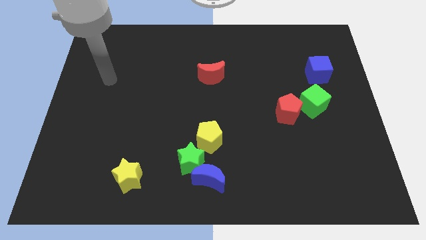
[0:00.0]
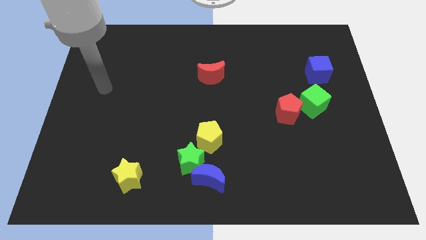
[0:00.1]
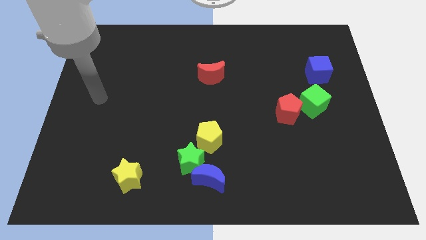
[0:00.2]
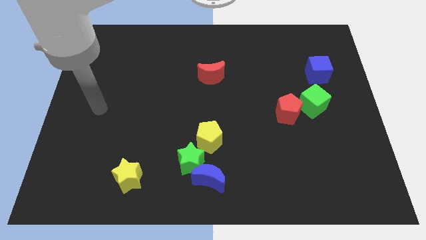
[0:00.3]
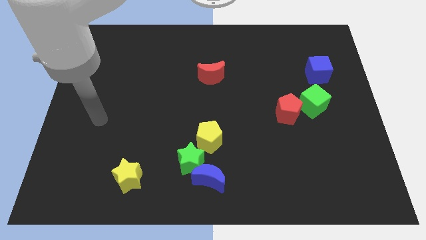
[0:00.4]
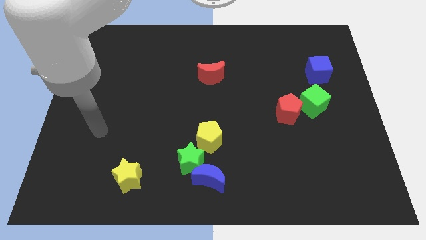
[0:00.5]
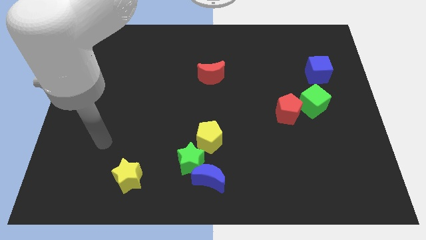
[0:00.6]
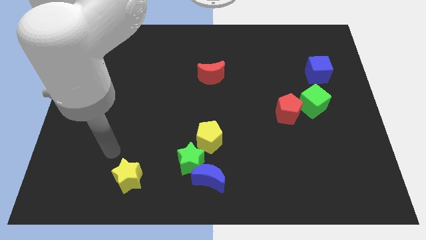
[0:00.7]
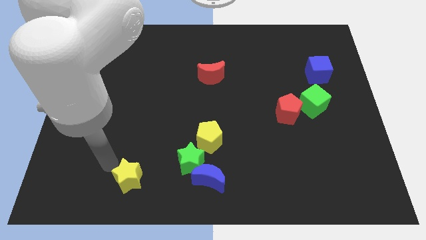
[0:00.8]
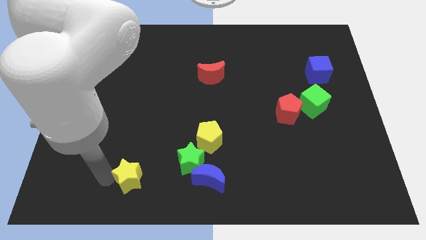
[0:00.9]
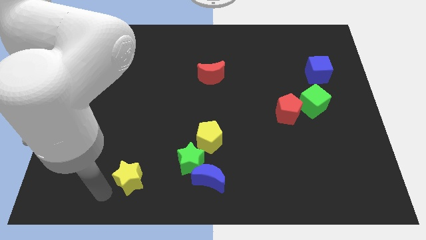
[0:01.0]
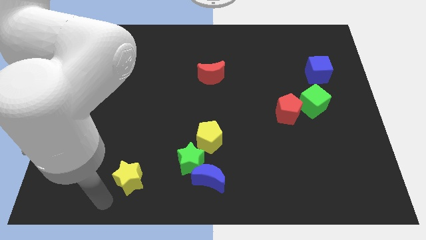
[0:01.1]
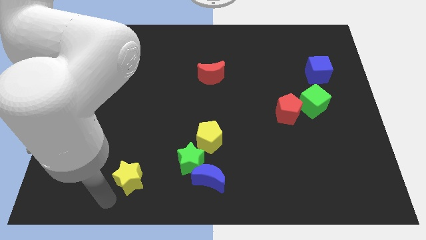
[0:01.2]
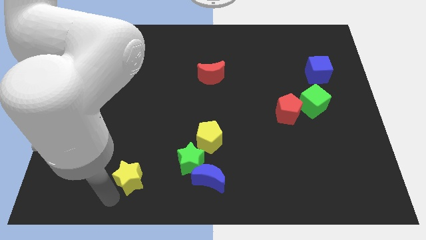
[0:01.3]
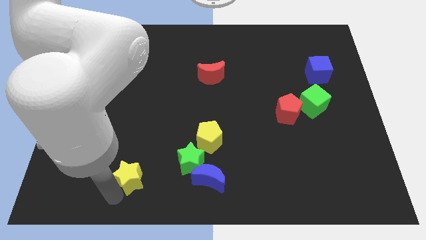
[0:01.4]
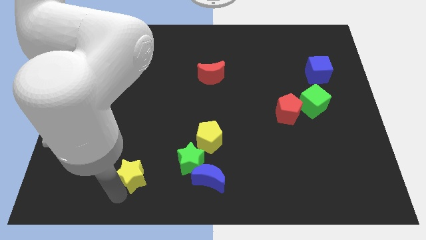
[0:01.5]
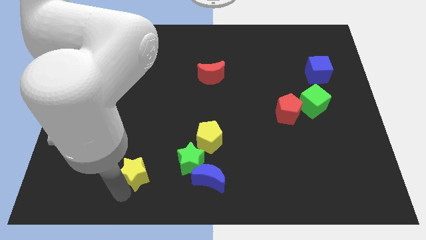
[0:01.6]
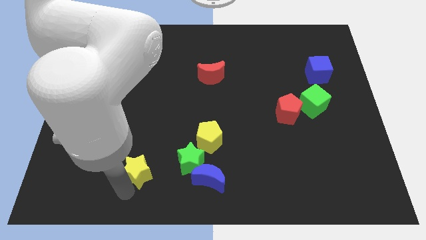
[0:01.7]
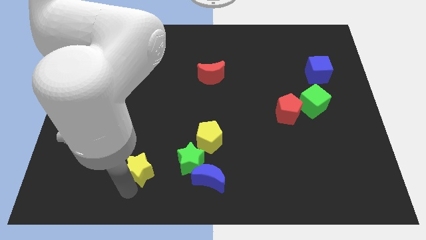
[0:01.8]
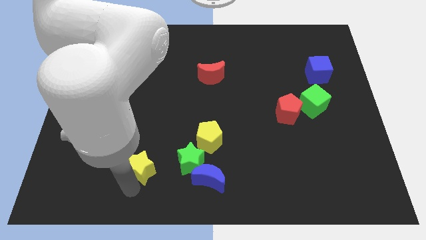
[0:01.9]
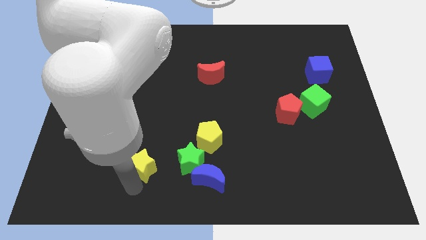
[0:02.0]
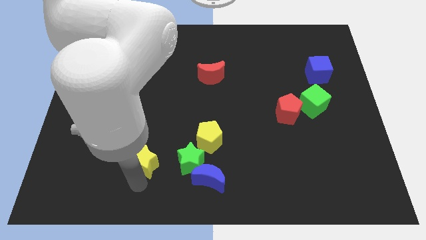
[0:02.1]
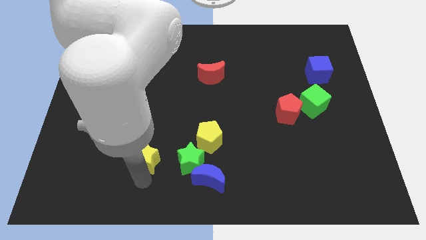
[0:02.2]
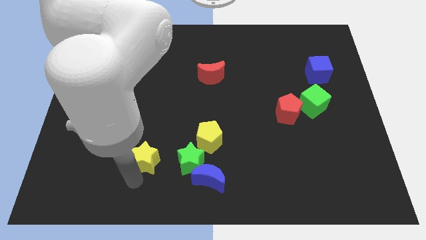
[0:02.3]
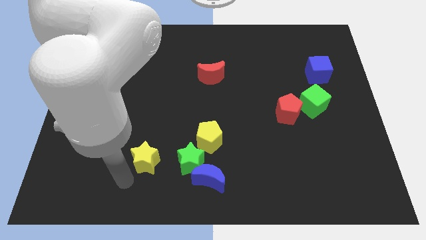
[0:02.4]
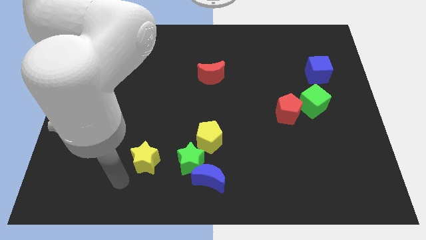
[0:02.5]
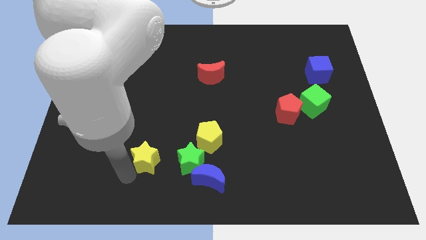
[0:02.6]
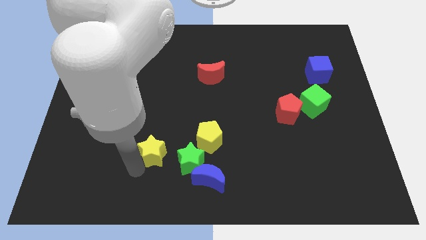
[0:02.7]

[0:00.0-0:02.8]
push the yellow star a little diagonally upwards and to the right

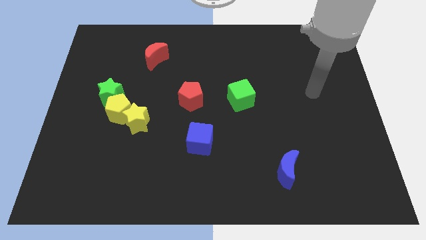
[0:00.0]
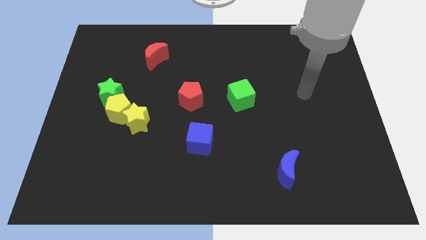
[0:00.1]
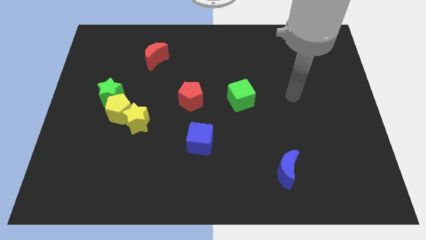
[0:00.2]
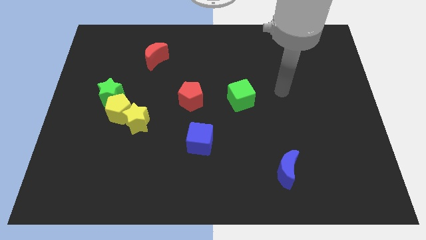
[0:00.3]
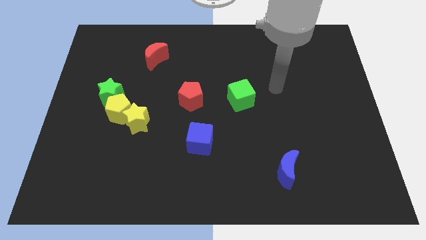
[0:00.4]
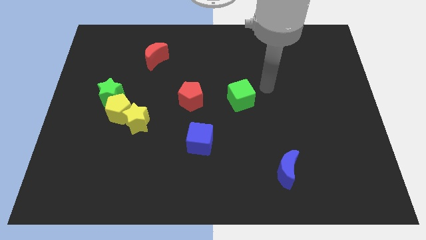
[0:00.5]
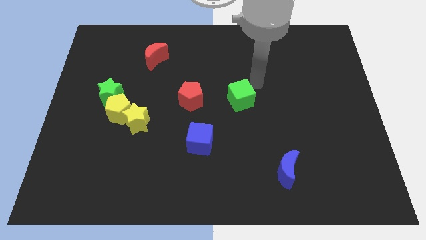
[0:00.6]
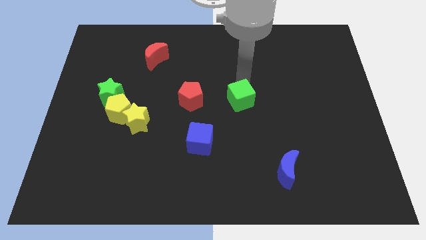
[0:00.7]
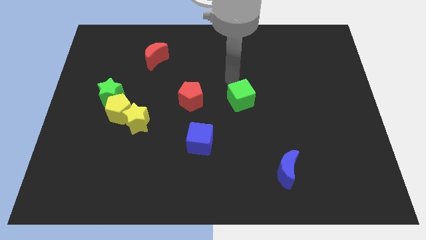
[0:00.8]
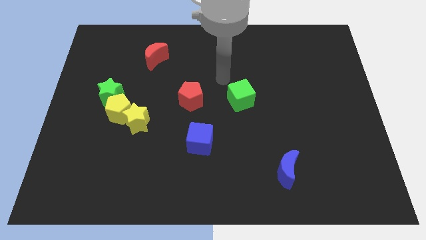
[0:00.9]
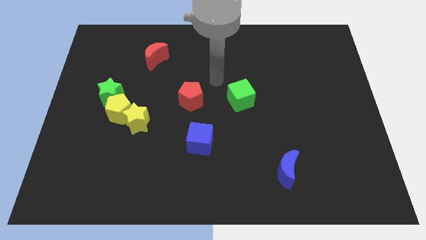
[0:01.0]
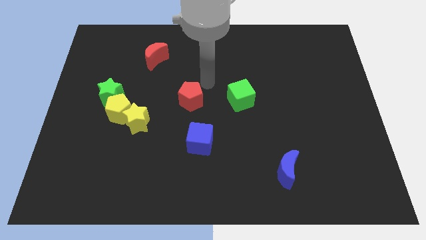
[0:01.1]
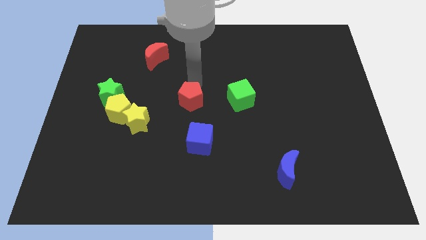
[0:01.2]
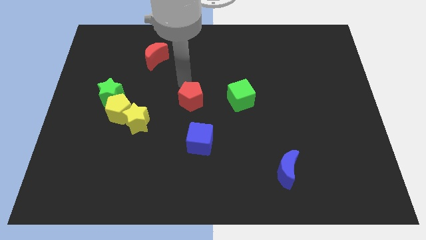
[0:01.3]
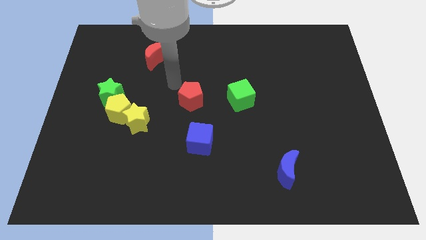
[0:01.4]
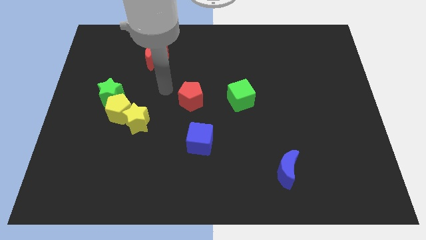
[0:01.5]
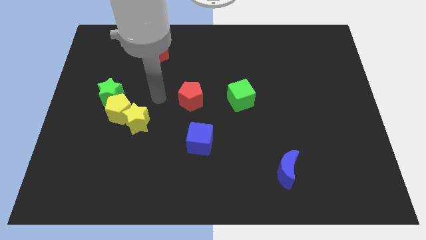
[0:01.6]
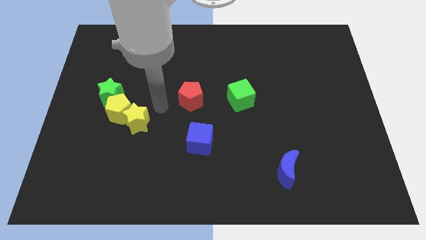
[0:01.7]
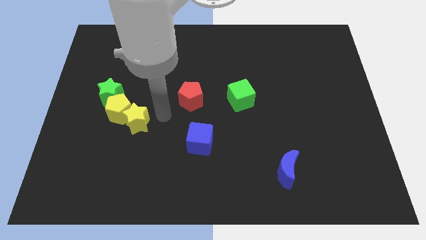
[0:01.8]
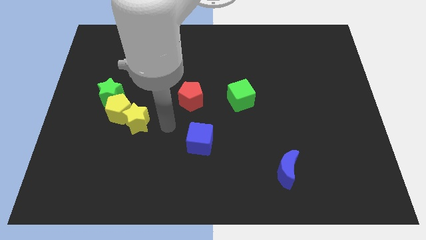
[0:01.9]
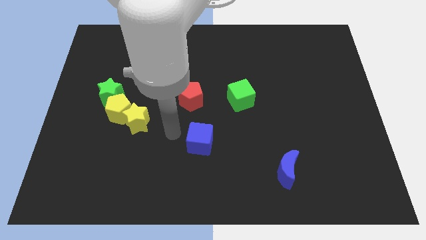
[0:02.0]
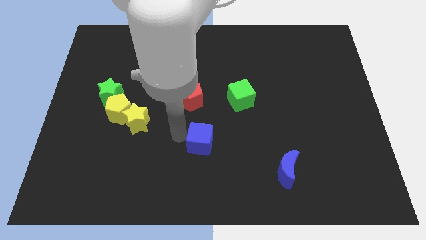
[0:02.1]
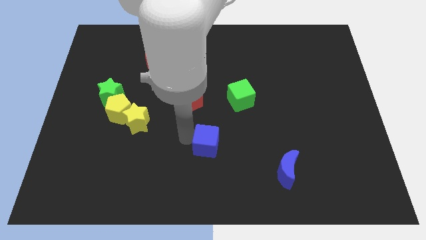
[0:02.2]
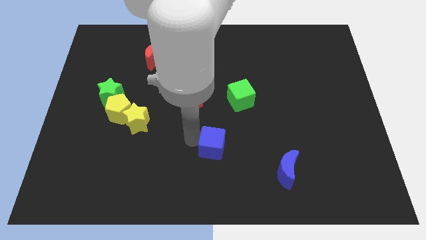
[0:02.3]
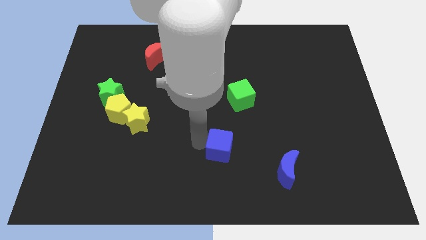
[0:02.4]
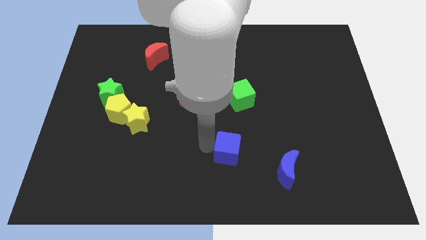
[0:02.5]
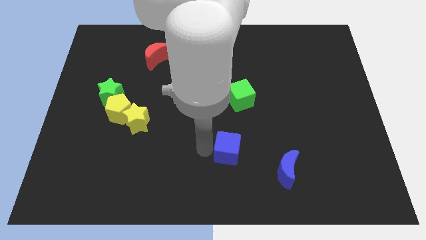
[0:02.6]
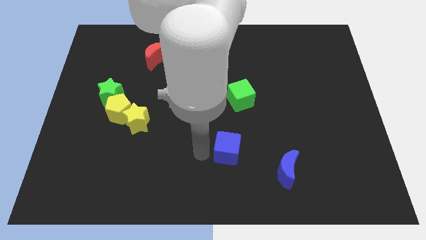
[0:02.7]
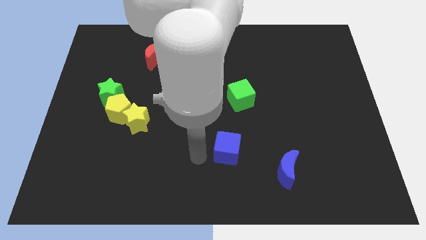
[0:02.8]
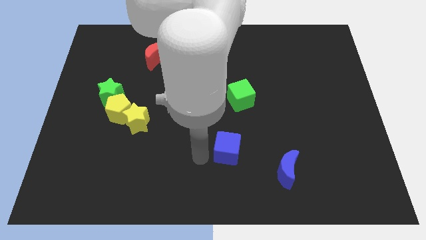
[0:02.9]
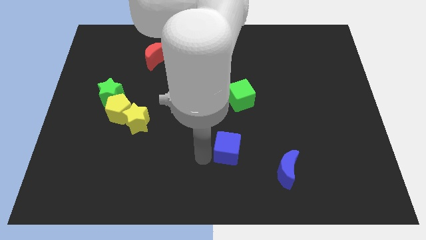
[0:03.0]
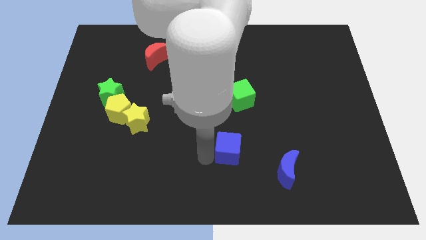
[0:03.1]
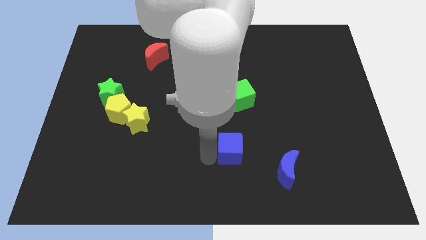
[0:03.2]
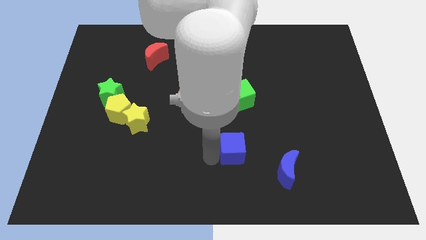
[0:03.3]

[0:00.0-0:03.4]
slide the blue cube to the right a little

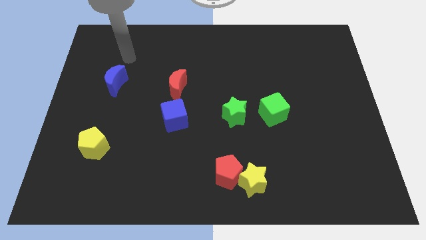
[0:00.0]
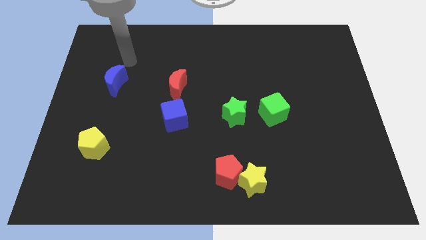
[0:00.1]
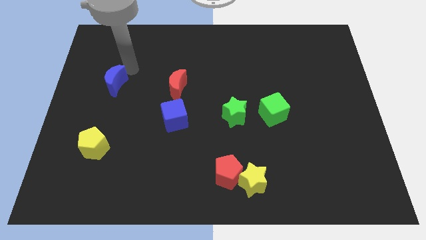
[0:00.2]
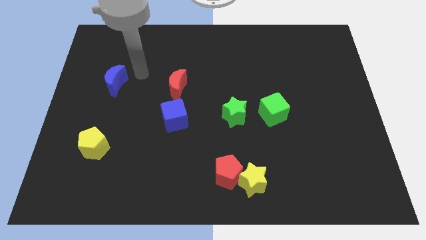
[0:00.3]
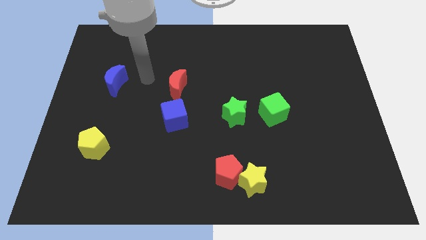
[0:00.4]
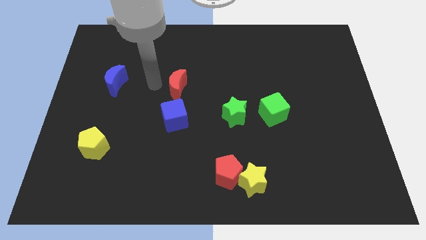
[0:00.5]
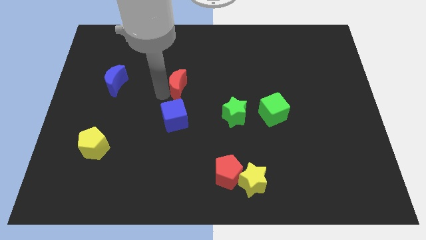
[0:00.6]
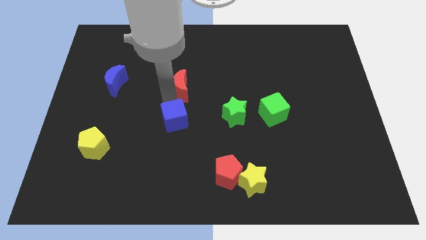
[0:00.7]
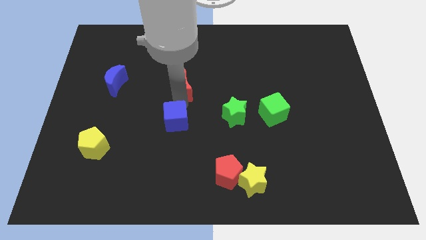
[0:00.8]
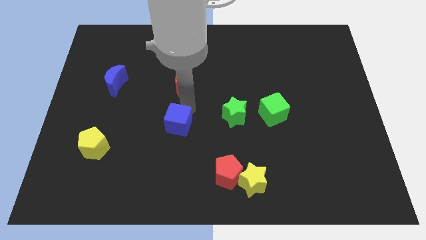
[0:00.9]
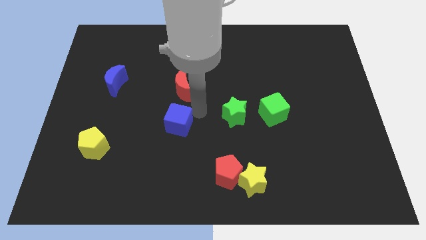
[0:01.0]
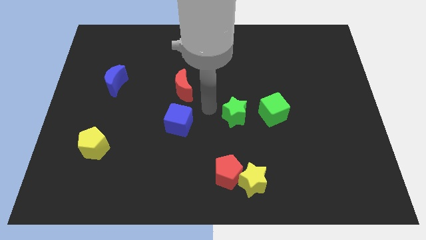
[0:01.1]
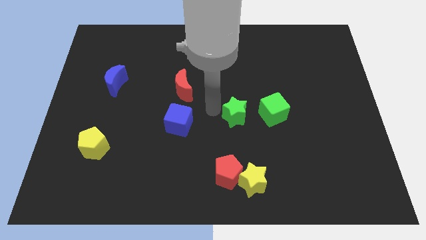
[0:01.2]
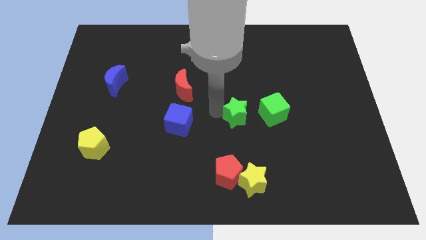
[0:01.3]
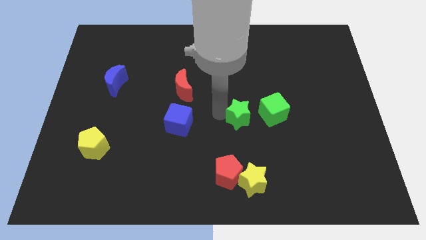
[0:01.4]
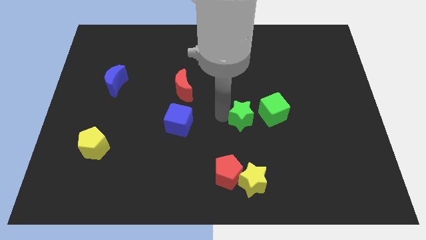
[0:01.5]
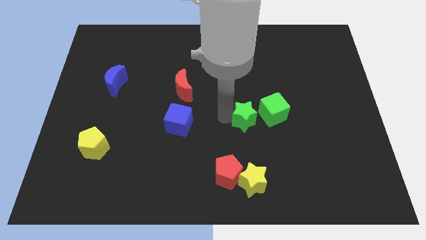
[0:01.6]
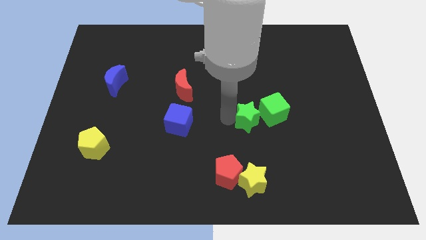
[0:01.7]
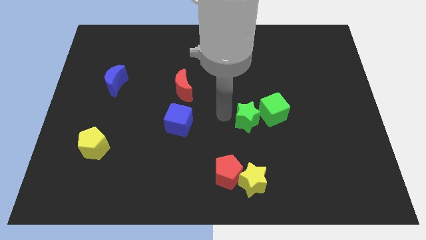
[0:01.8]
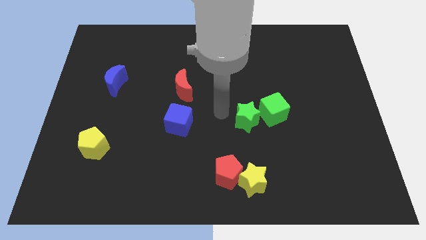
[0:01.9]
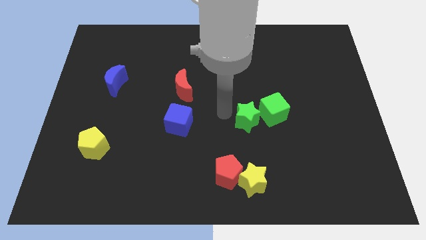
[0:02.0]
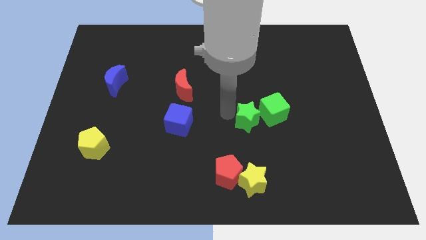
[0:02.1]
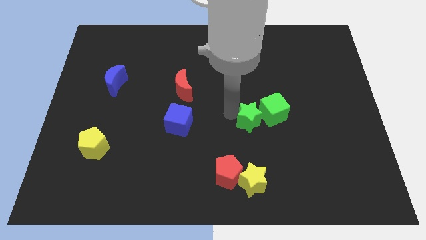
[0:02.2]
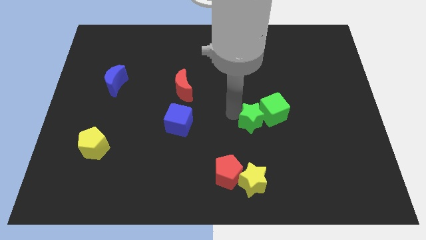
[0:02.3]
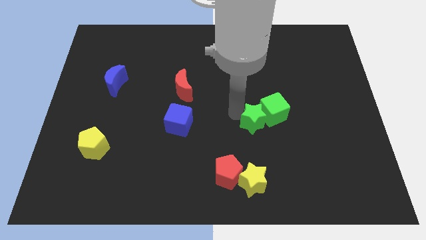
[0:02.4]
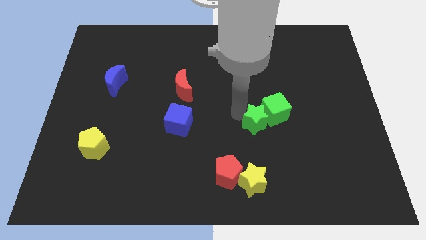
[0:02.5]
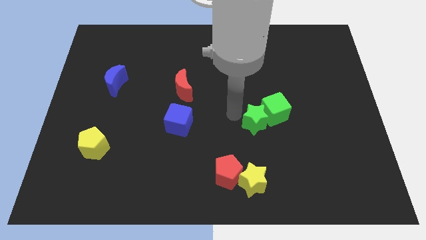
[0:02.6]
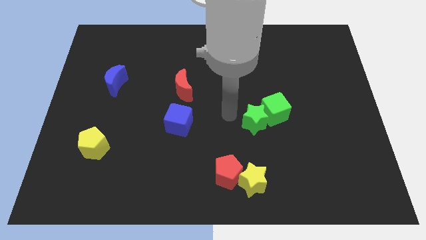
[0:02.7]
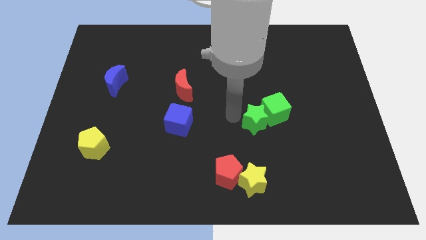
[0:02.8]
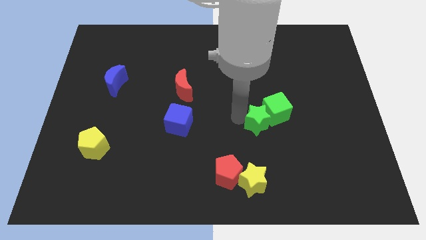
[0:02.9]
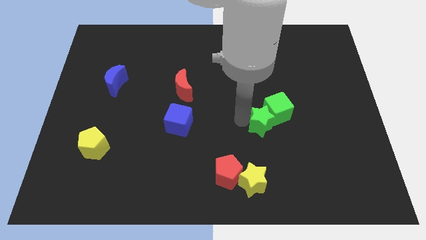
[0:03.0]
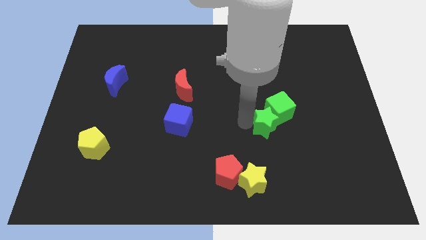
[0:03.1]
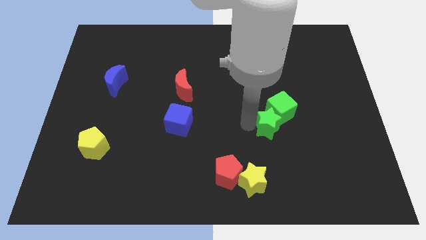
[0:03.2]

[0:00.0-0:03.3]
push the green star to the right slightly
